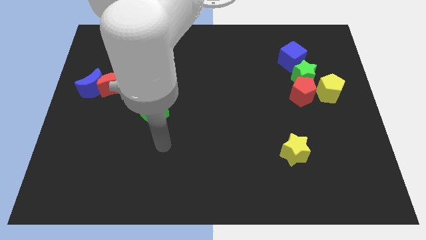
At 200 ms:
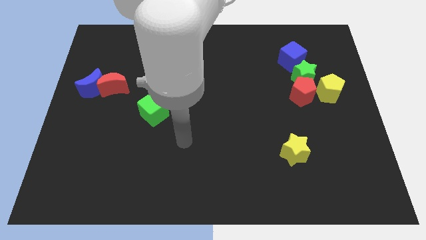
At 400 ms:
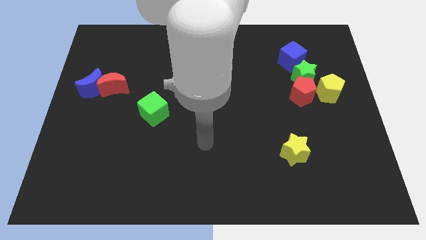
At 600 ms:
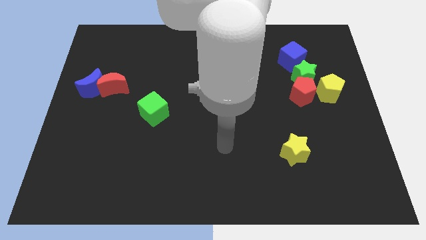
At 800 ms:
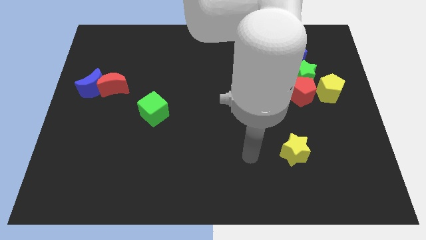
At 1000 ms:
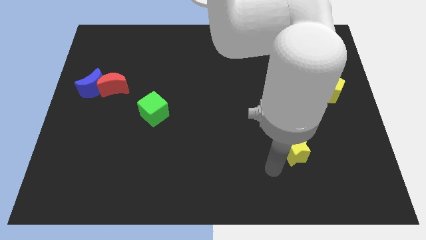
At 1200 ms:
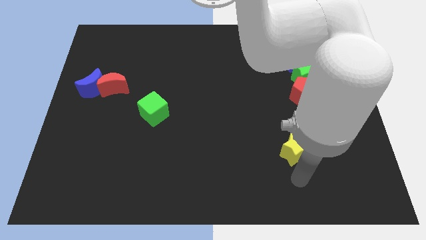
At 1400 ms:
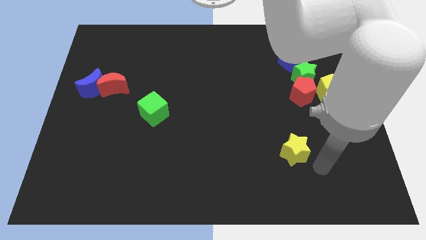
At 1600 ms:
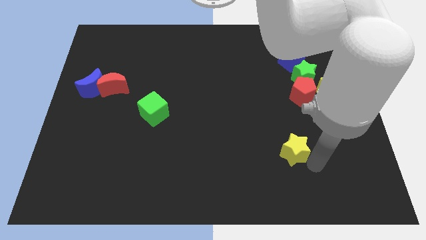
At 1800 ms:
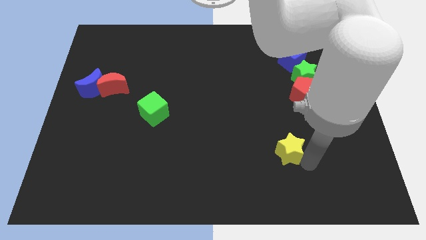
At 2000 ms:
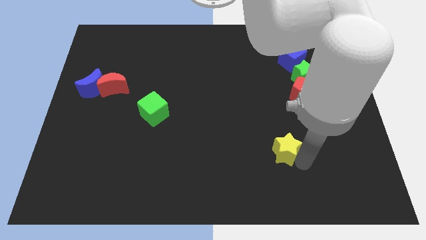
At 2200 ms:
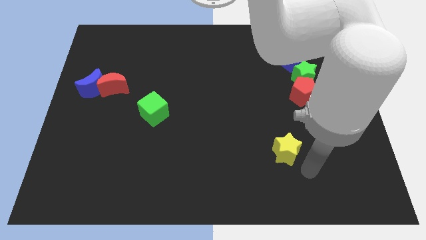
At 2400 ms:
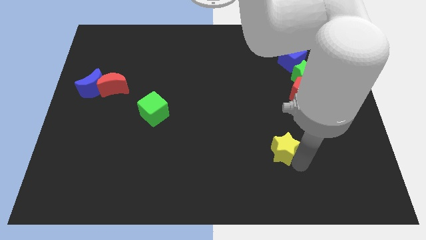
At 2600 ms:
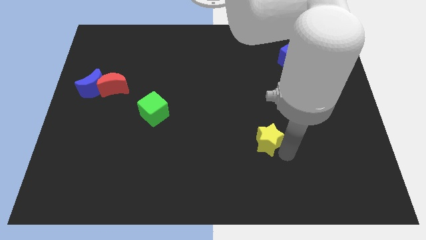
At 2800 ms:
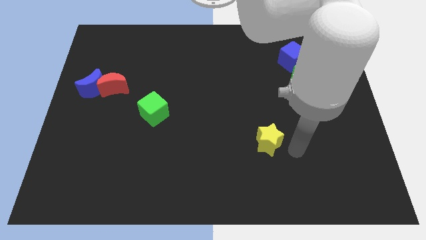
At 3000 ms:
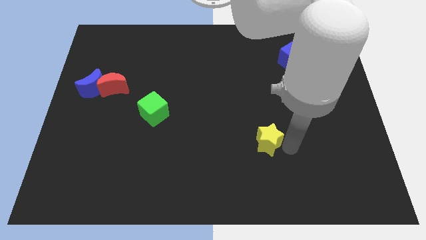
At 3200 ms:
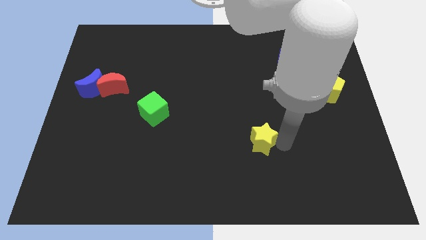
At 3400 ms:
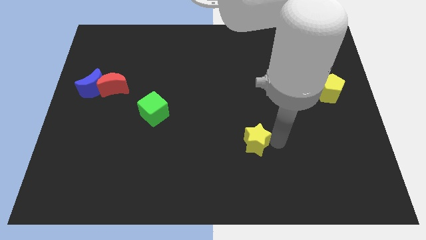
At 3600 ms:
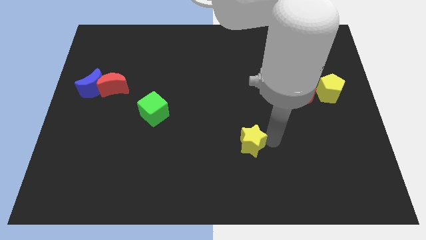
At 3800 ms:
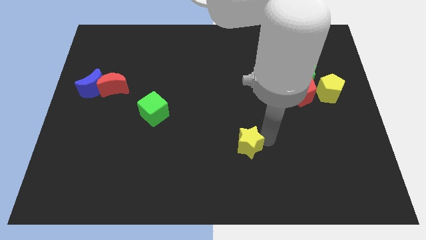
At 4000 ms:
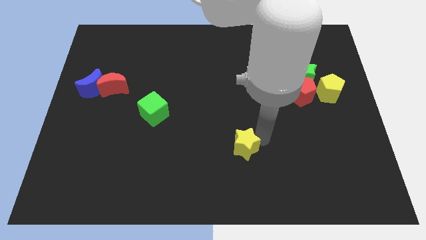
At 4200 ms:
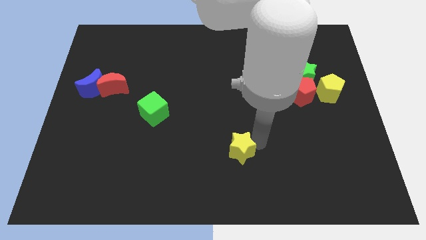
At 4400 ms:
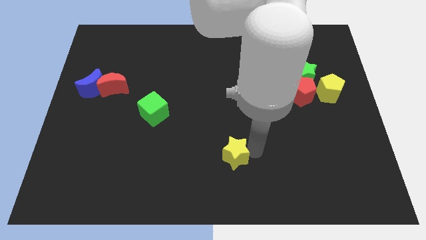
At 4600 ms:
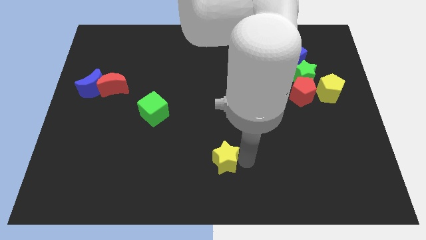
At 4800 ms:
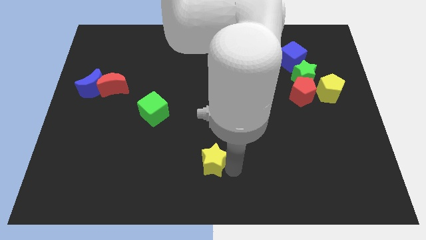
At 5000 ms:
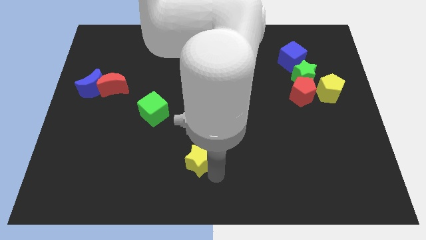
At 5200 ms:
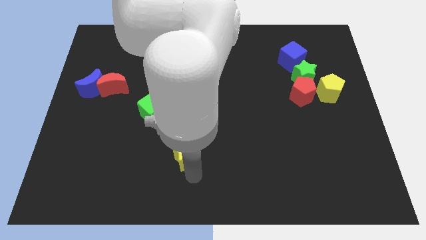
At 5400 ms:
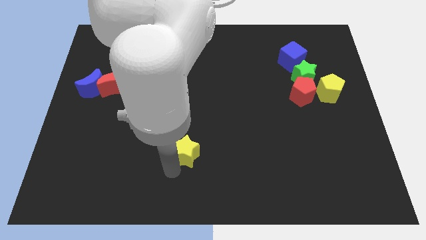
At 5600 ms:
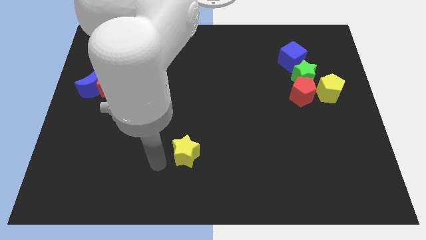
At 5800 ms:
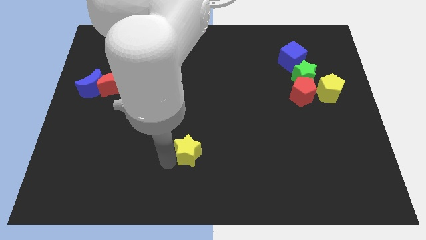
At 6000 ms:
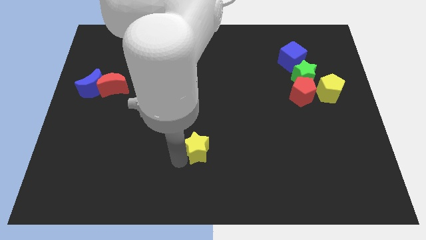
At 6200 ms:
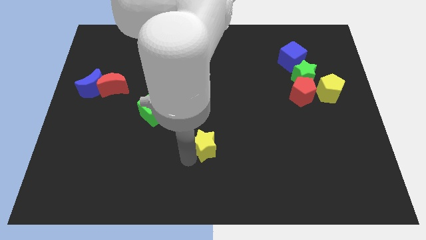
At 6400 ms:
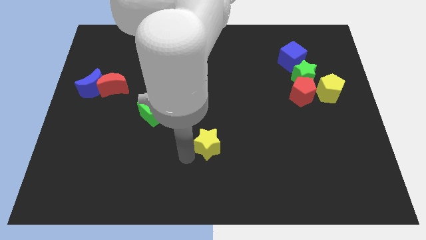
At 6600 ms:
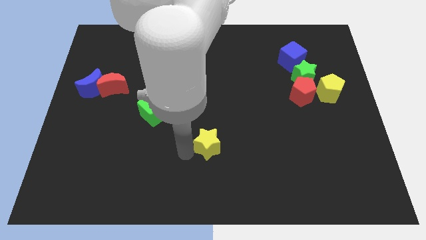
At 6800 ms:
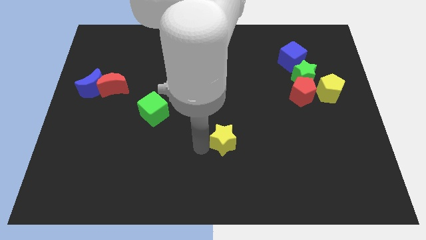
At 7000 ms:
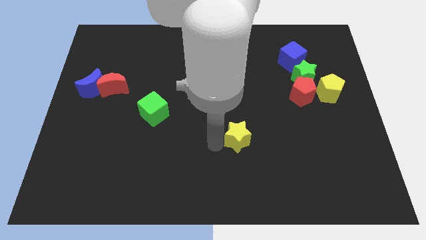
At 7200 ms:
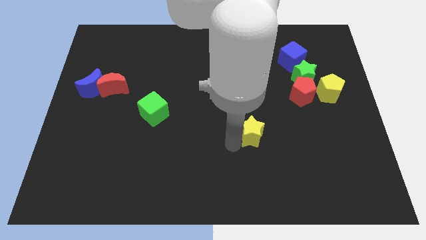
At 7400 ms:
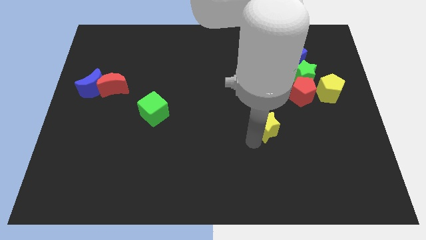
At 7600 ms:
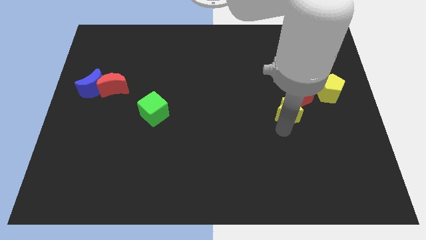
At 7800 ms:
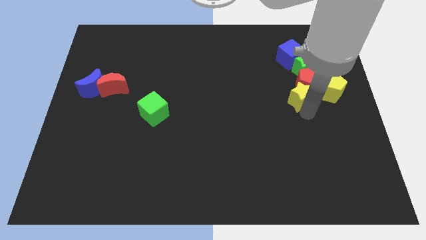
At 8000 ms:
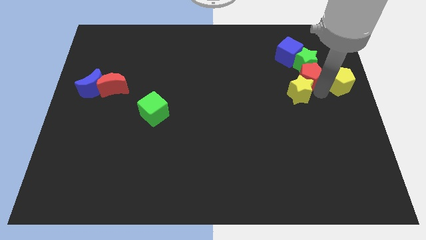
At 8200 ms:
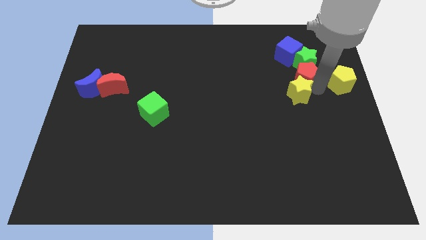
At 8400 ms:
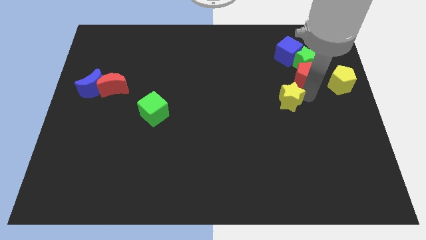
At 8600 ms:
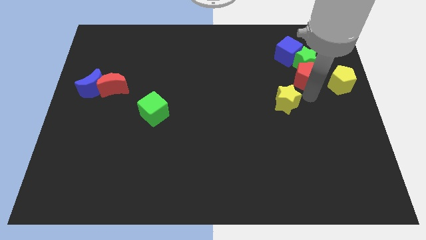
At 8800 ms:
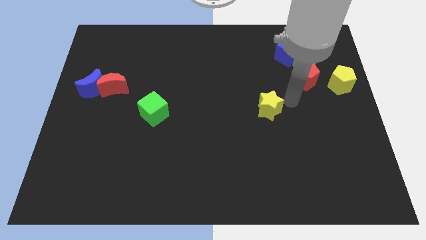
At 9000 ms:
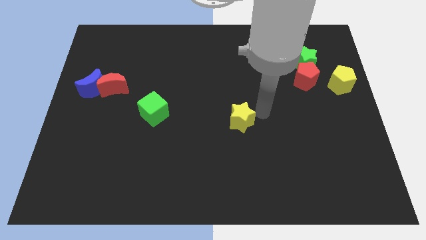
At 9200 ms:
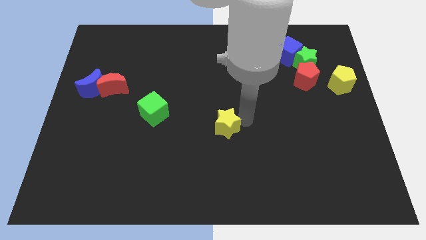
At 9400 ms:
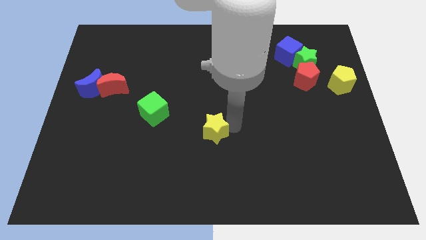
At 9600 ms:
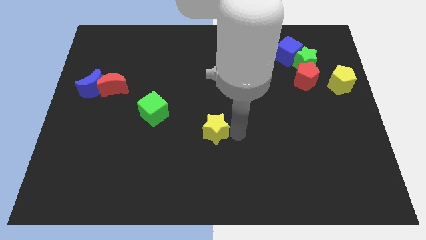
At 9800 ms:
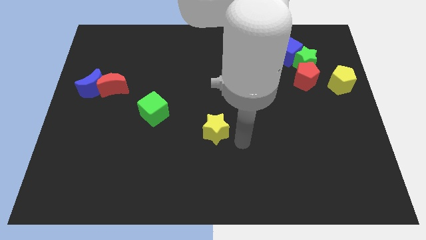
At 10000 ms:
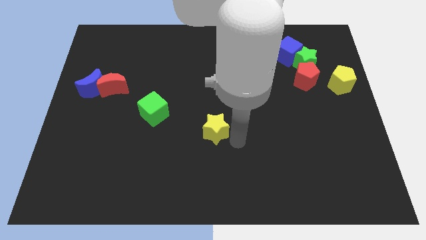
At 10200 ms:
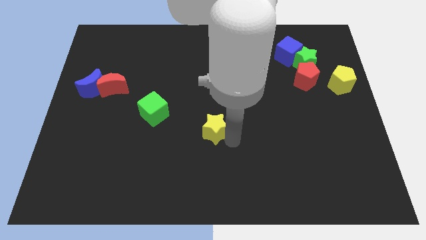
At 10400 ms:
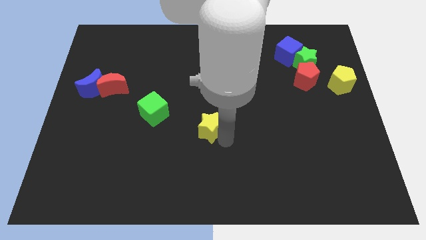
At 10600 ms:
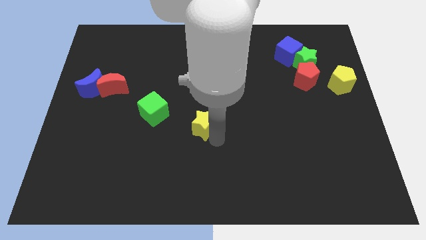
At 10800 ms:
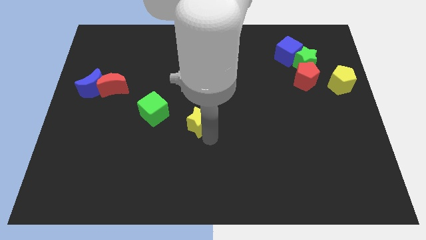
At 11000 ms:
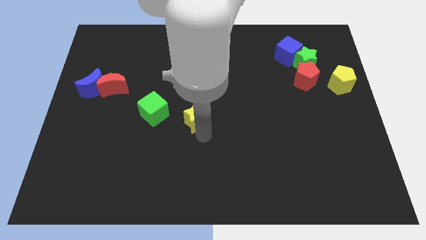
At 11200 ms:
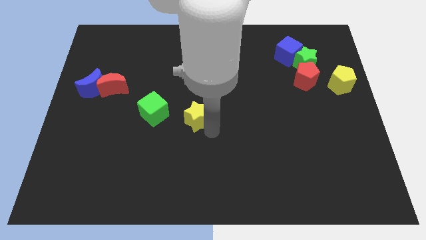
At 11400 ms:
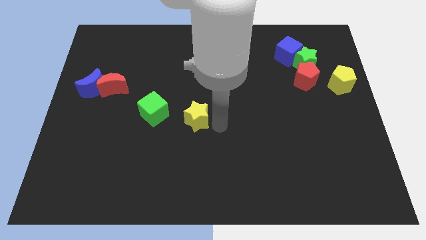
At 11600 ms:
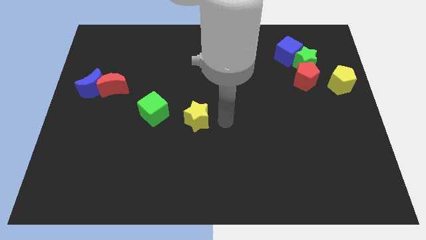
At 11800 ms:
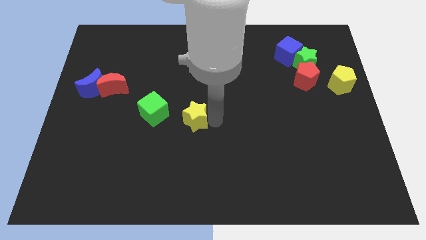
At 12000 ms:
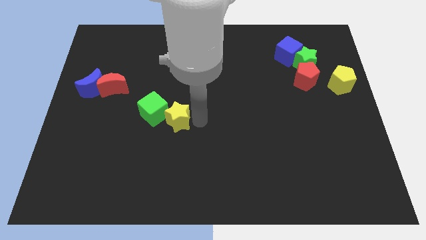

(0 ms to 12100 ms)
push the yellow star to the green cube

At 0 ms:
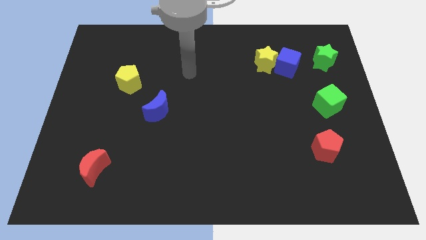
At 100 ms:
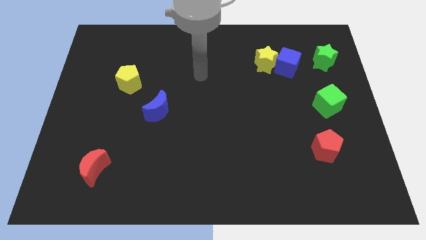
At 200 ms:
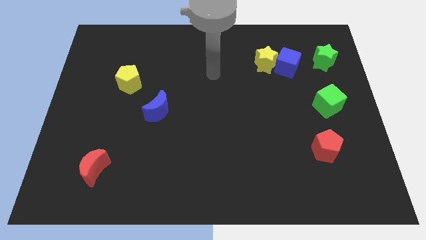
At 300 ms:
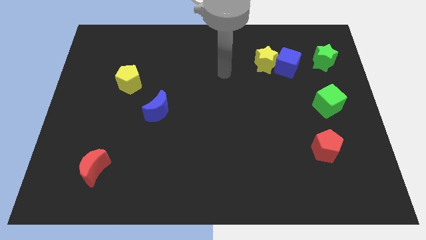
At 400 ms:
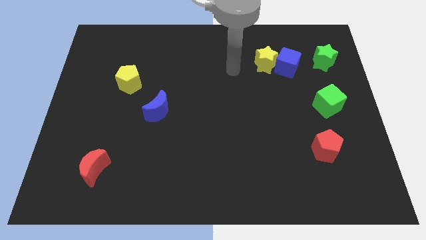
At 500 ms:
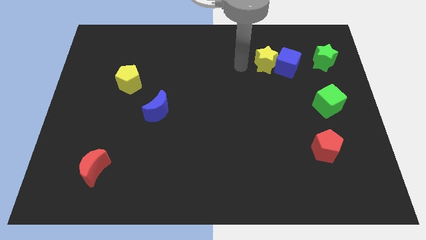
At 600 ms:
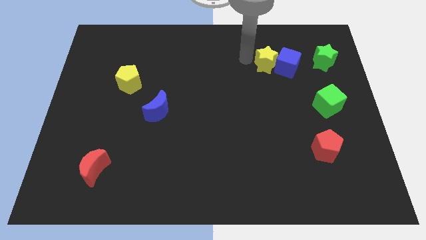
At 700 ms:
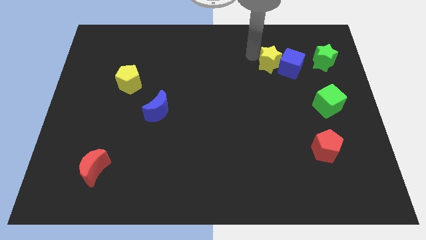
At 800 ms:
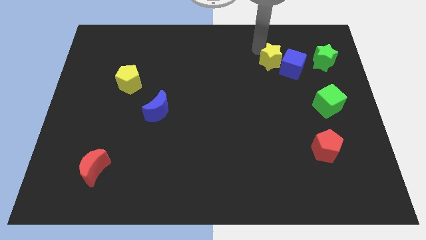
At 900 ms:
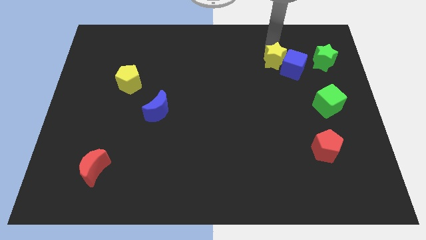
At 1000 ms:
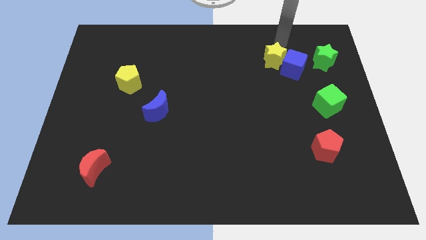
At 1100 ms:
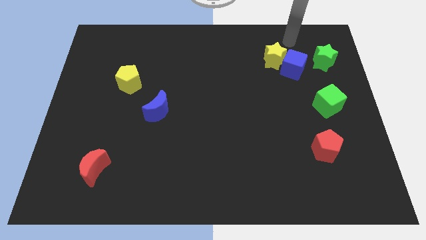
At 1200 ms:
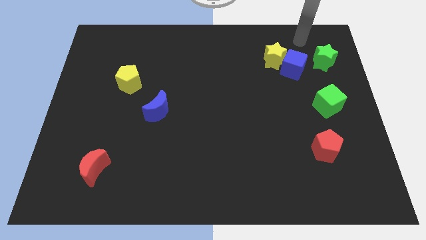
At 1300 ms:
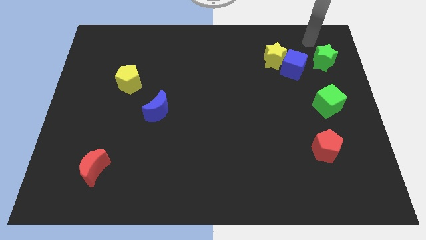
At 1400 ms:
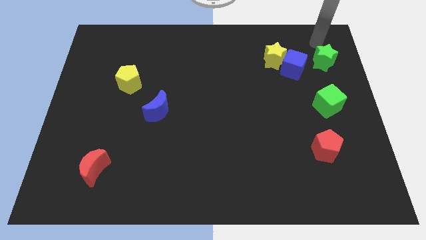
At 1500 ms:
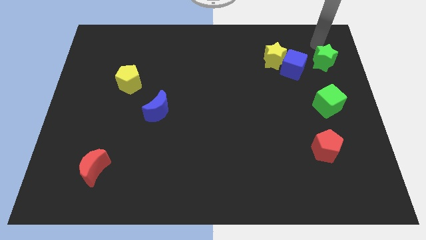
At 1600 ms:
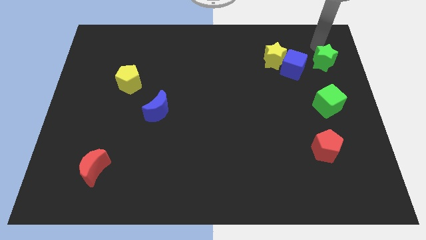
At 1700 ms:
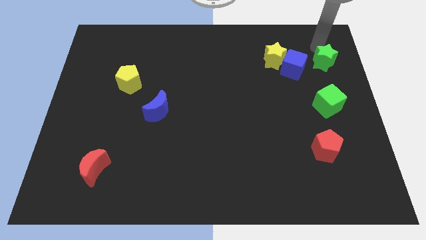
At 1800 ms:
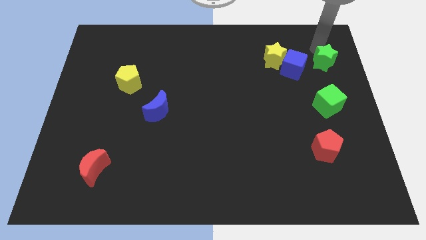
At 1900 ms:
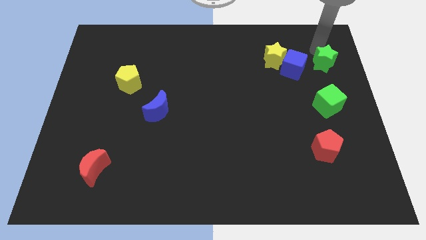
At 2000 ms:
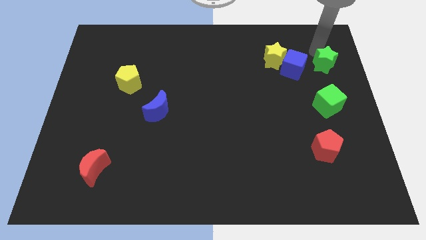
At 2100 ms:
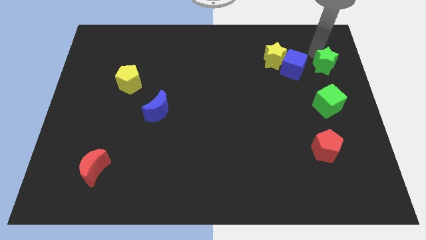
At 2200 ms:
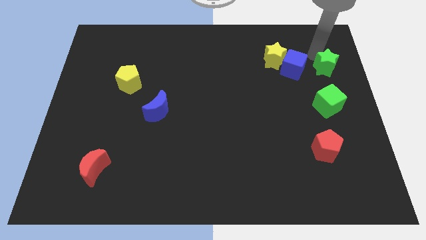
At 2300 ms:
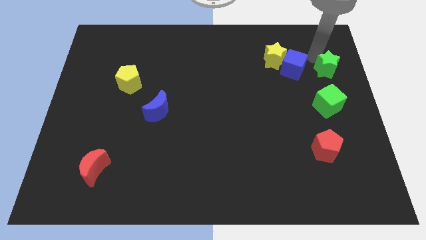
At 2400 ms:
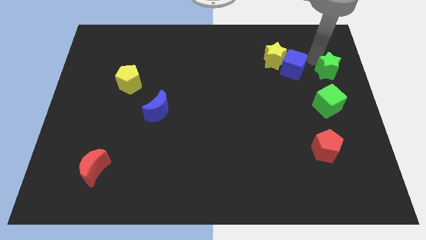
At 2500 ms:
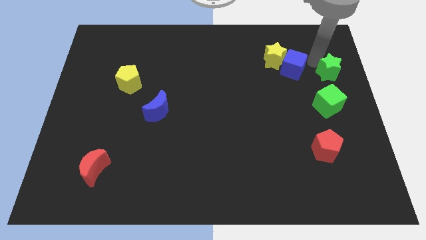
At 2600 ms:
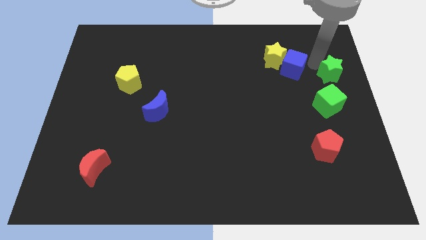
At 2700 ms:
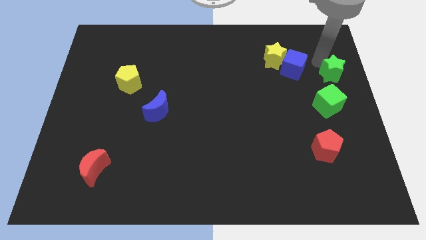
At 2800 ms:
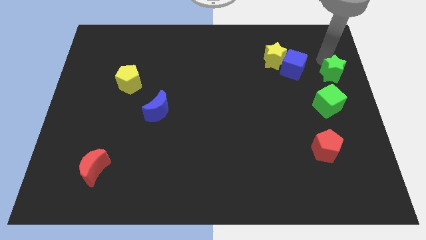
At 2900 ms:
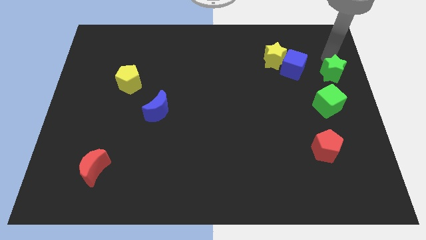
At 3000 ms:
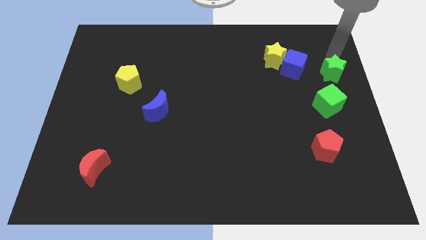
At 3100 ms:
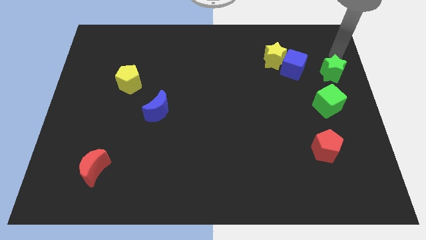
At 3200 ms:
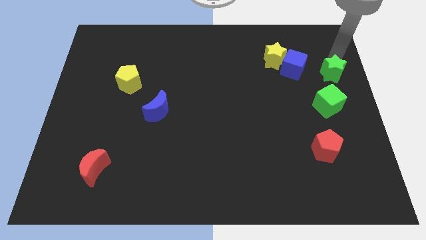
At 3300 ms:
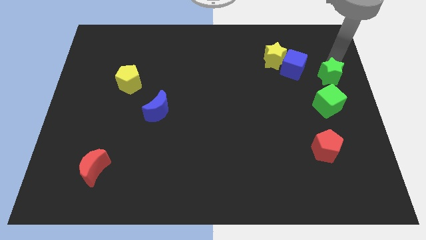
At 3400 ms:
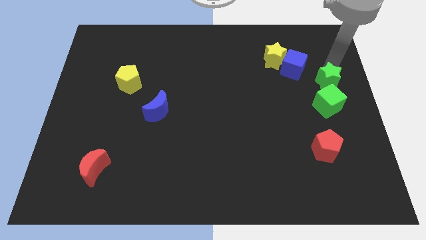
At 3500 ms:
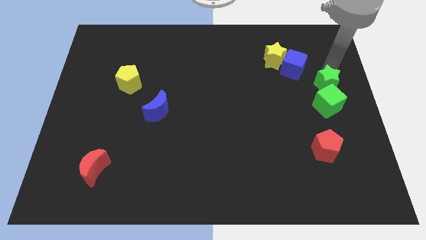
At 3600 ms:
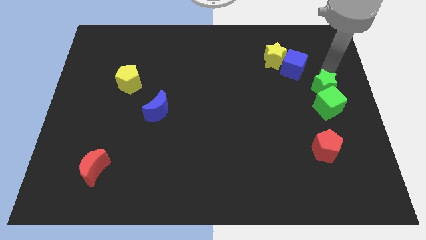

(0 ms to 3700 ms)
put the green star next to the green cube
